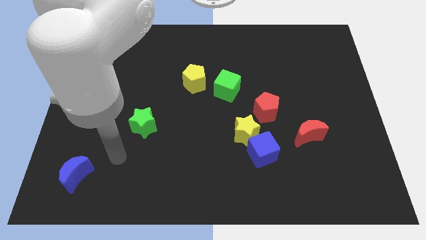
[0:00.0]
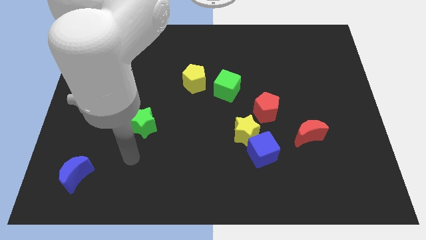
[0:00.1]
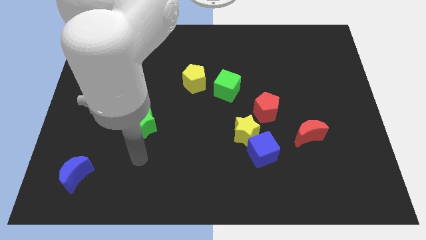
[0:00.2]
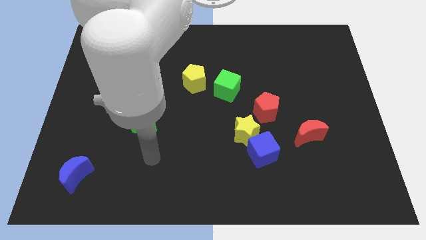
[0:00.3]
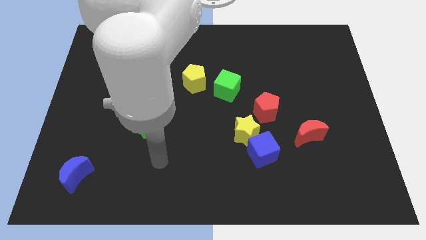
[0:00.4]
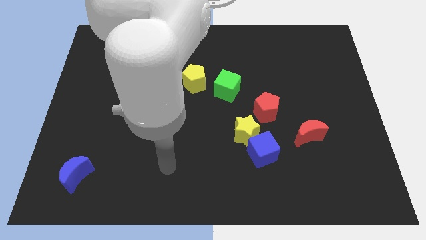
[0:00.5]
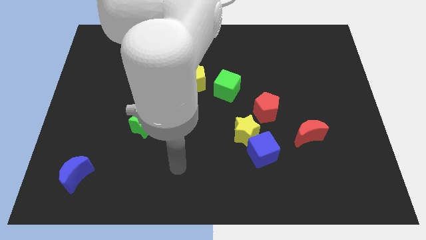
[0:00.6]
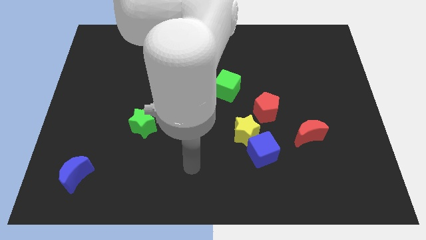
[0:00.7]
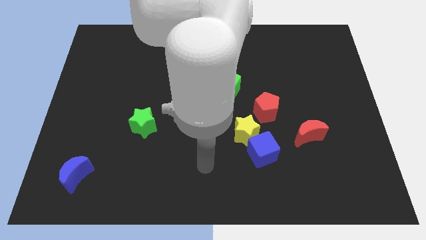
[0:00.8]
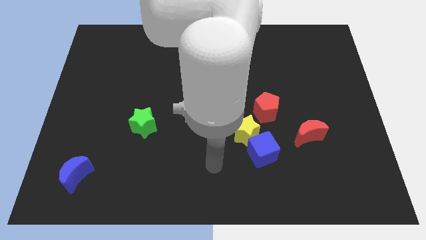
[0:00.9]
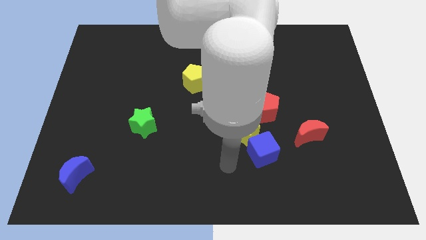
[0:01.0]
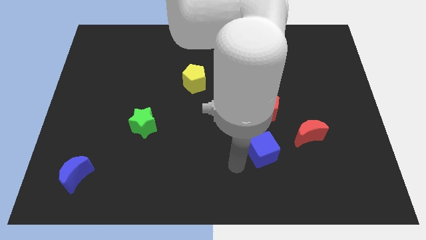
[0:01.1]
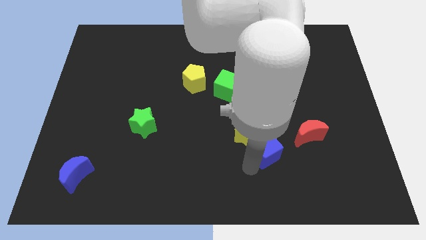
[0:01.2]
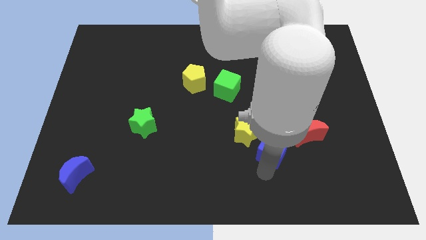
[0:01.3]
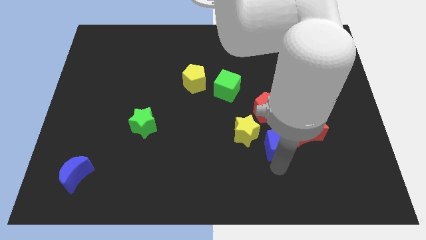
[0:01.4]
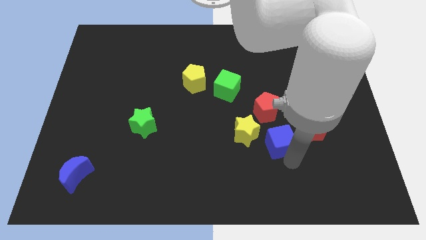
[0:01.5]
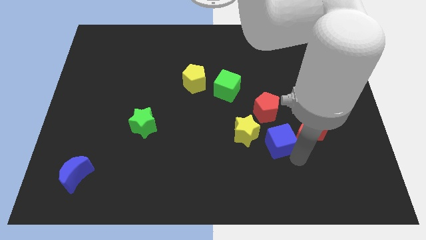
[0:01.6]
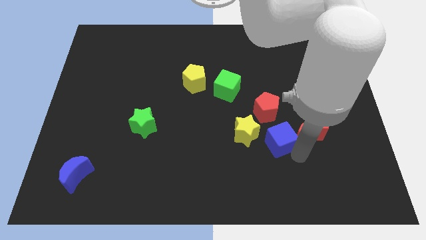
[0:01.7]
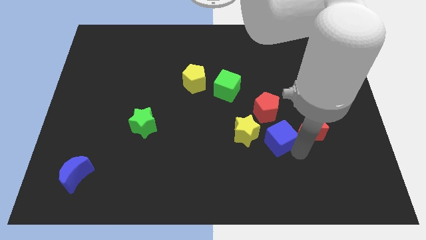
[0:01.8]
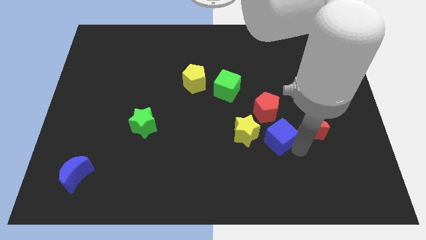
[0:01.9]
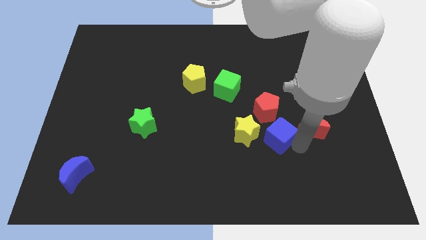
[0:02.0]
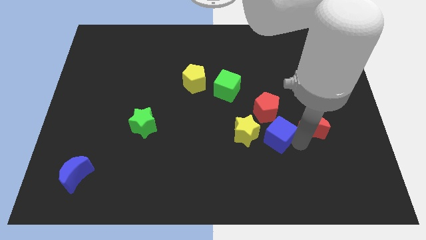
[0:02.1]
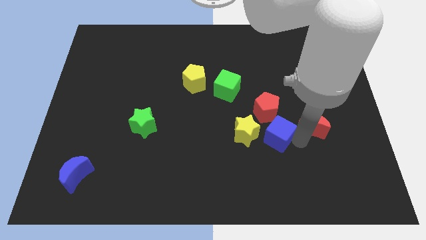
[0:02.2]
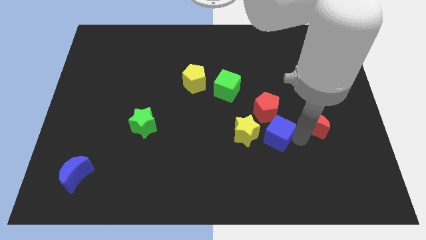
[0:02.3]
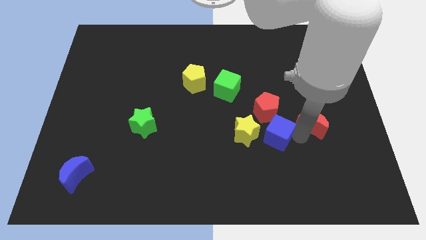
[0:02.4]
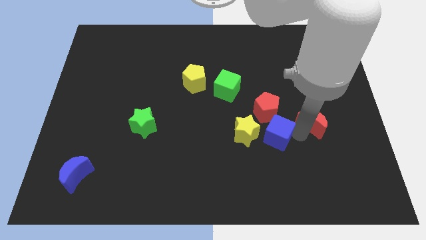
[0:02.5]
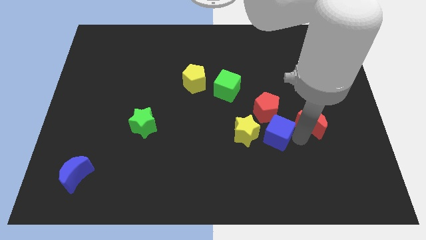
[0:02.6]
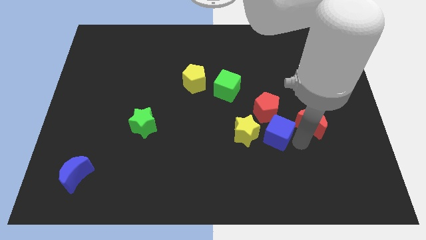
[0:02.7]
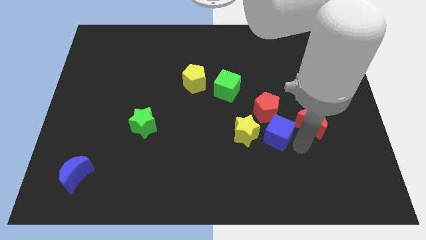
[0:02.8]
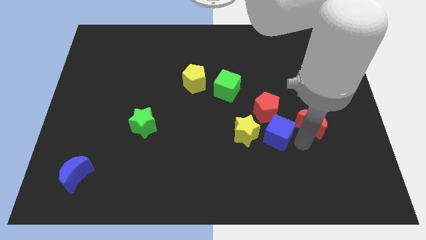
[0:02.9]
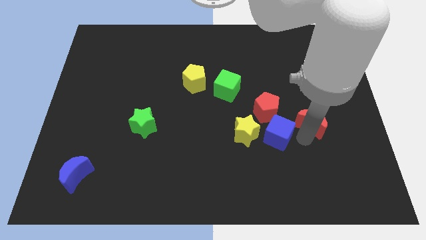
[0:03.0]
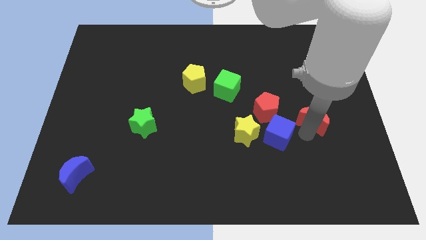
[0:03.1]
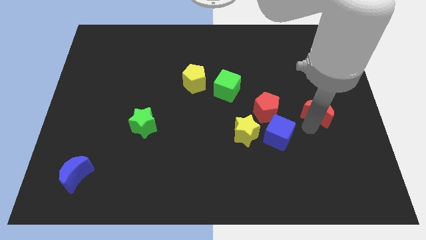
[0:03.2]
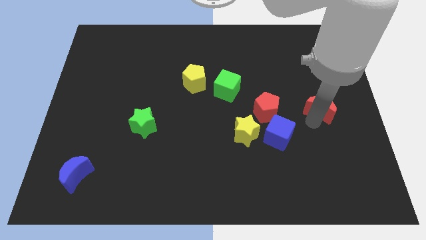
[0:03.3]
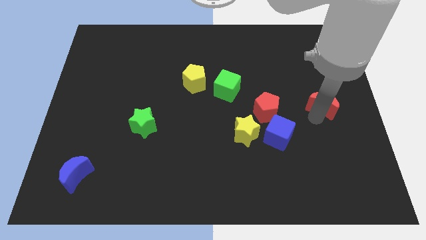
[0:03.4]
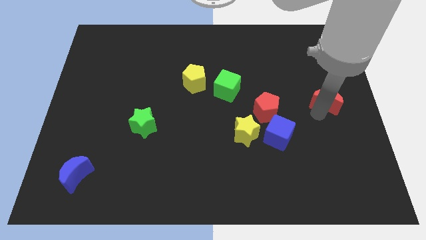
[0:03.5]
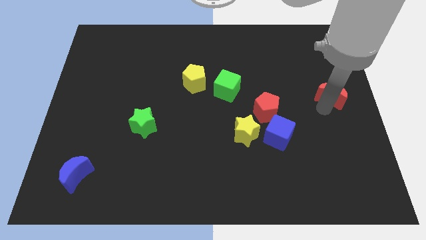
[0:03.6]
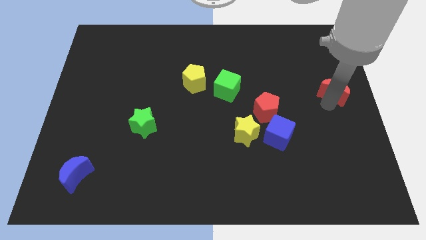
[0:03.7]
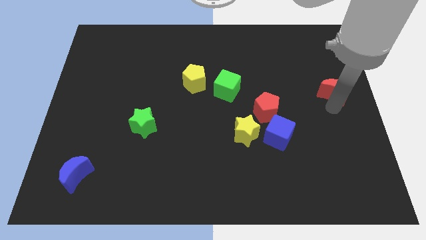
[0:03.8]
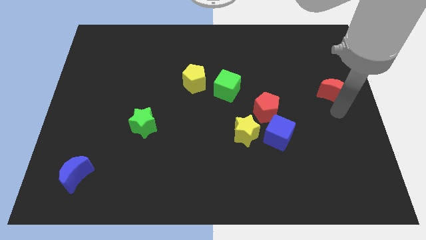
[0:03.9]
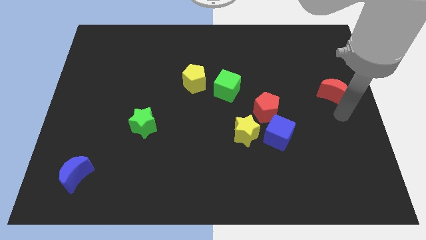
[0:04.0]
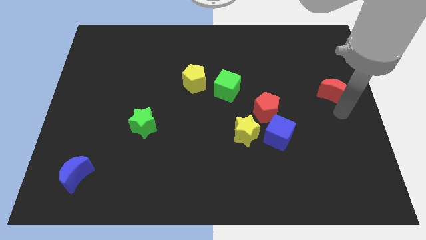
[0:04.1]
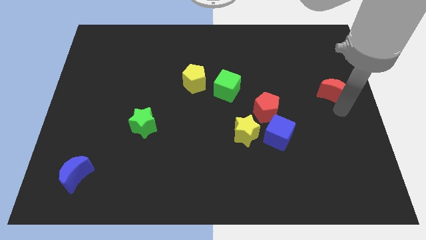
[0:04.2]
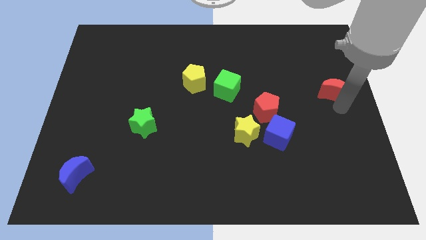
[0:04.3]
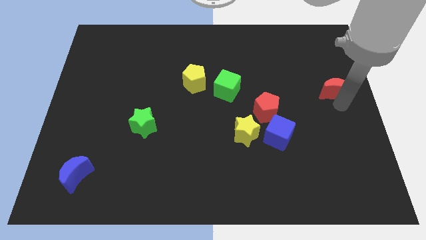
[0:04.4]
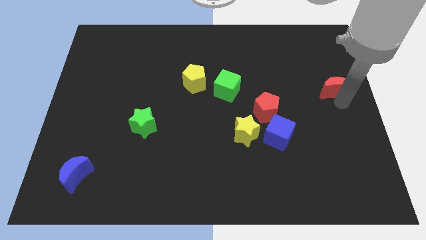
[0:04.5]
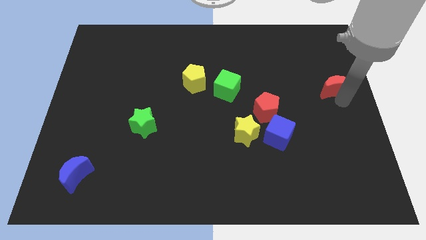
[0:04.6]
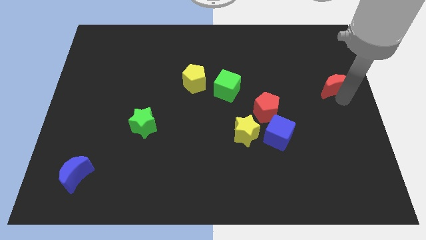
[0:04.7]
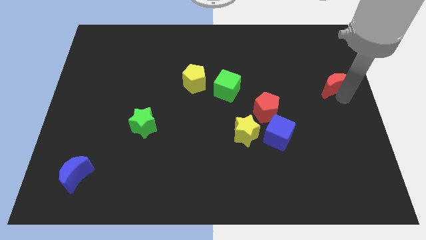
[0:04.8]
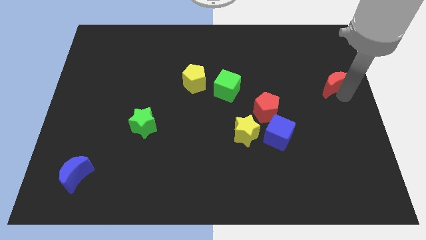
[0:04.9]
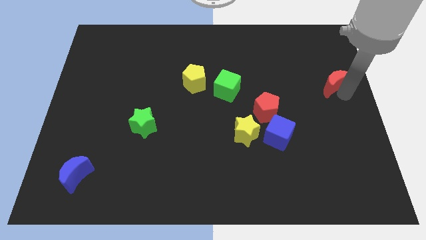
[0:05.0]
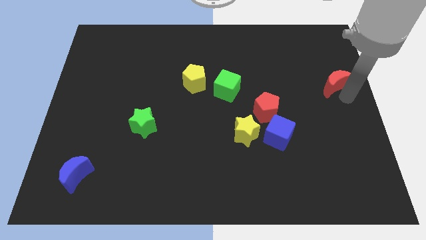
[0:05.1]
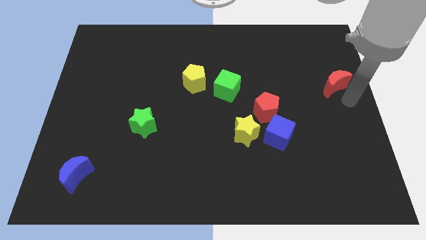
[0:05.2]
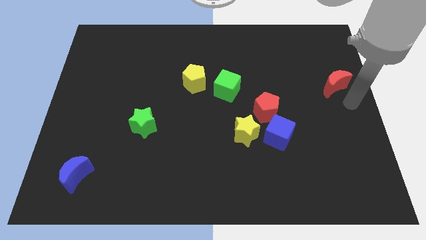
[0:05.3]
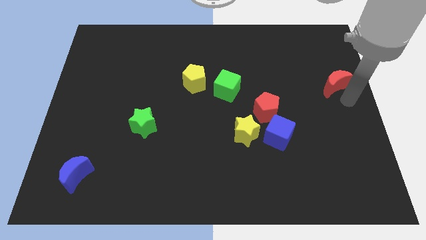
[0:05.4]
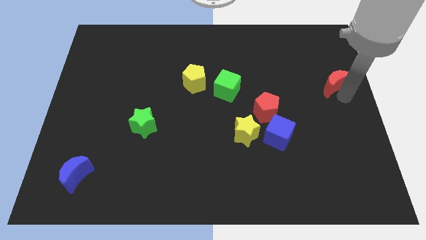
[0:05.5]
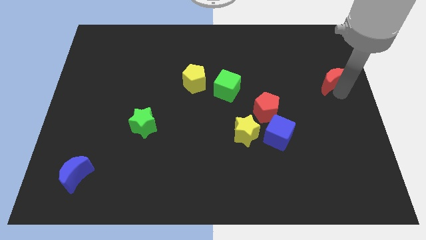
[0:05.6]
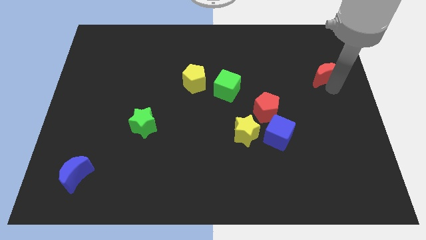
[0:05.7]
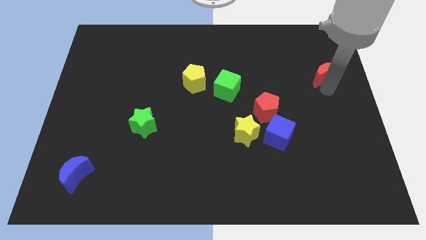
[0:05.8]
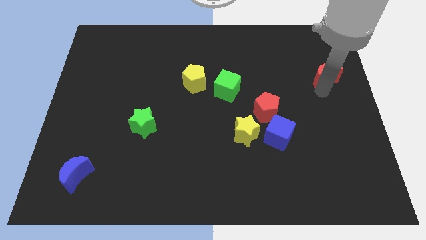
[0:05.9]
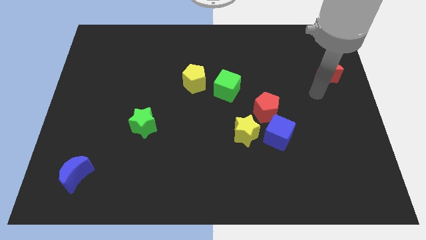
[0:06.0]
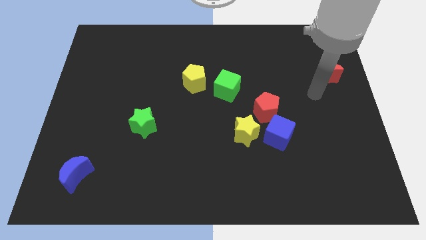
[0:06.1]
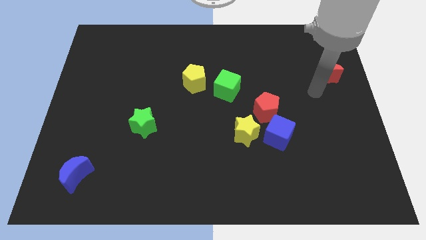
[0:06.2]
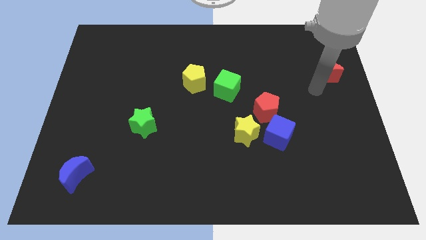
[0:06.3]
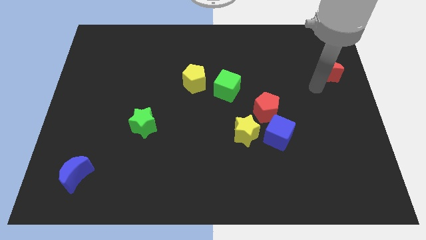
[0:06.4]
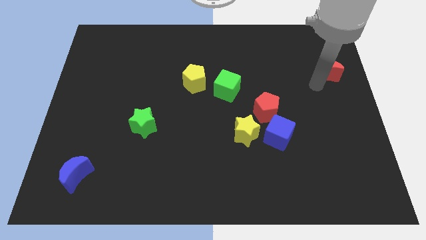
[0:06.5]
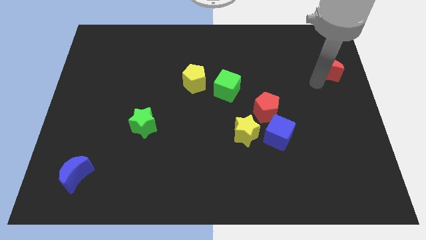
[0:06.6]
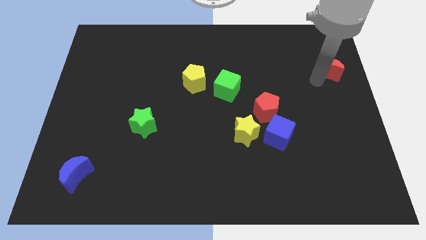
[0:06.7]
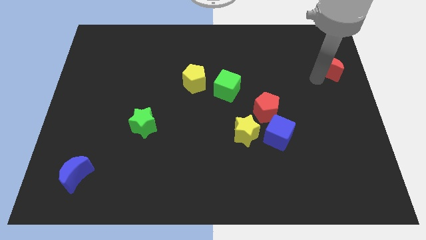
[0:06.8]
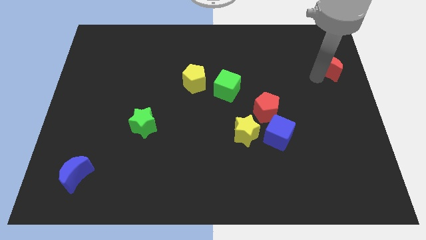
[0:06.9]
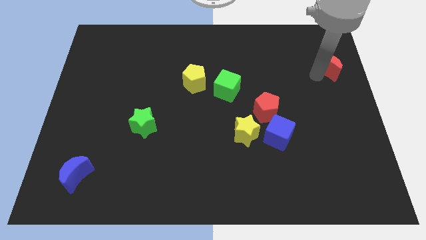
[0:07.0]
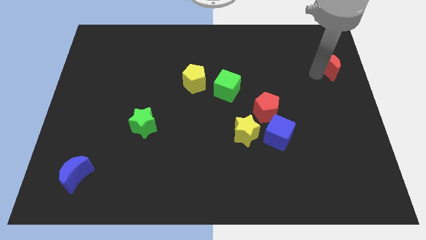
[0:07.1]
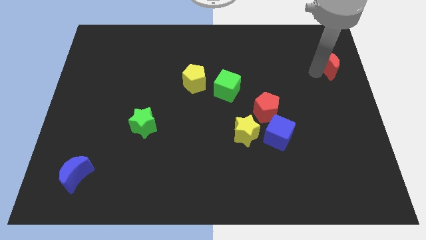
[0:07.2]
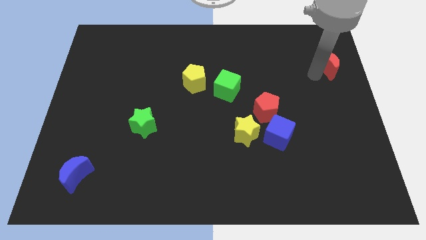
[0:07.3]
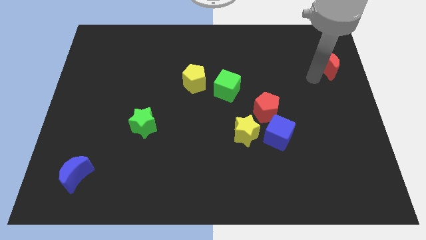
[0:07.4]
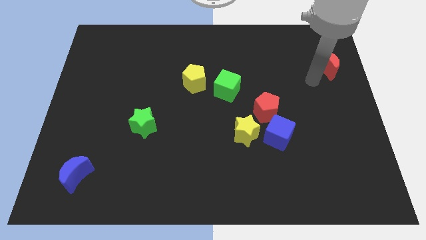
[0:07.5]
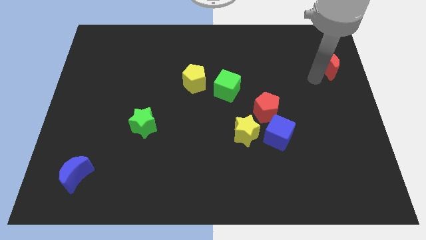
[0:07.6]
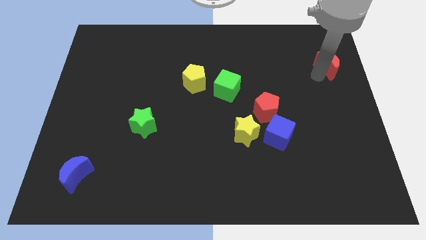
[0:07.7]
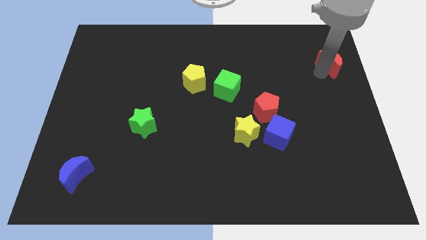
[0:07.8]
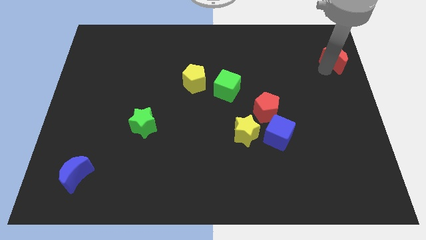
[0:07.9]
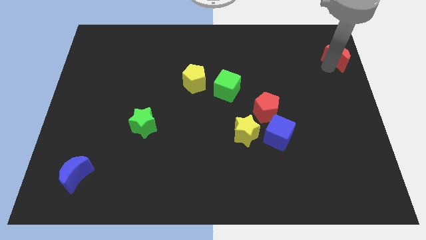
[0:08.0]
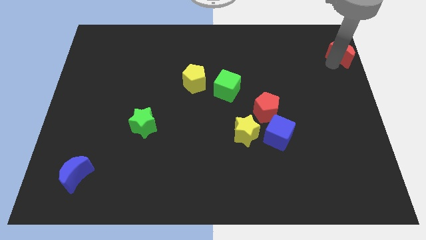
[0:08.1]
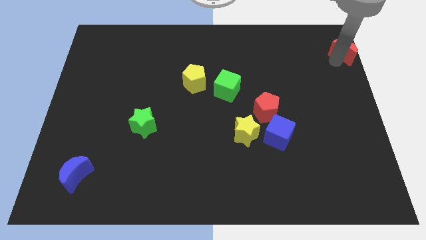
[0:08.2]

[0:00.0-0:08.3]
move the red moon to the upper right corner
